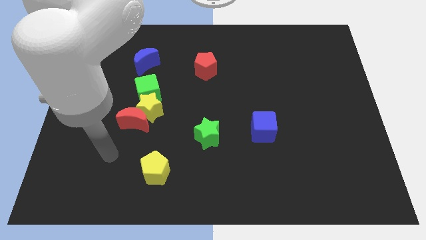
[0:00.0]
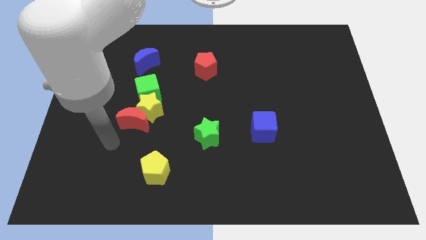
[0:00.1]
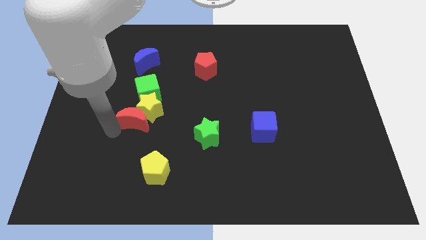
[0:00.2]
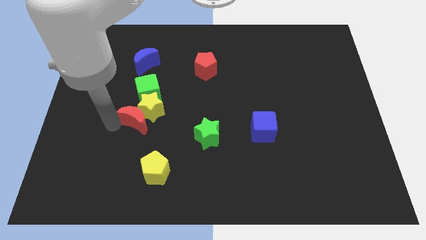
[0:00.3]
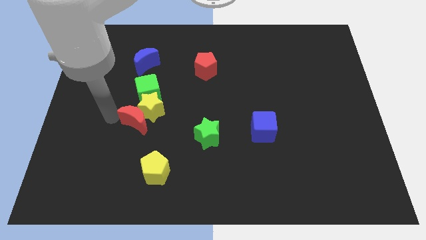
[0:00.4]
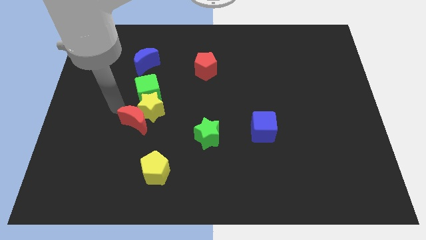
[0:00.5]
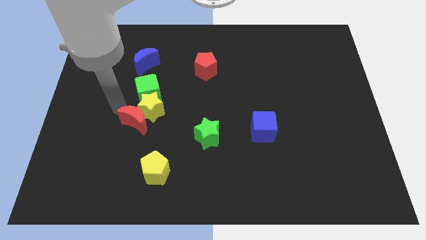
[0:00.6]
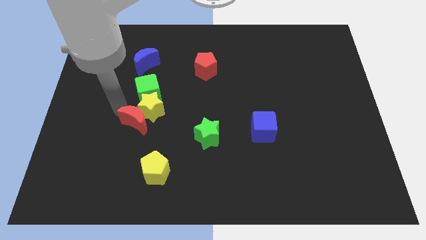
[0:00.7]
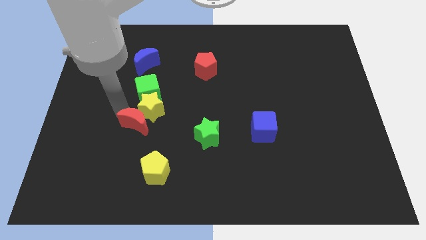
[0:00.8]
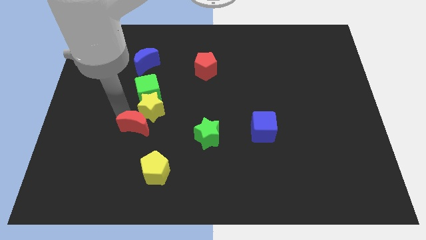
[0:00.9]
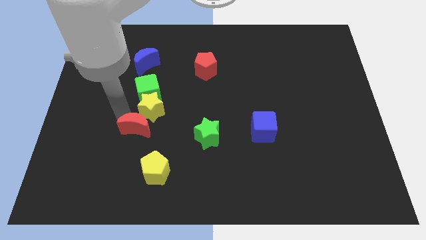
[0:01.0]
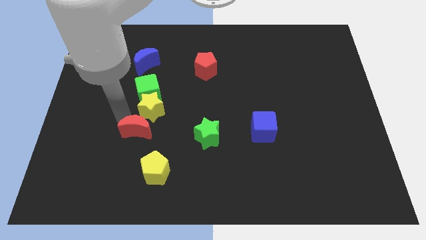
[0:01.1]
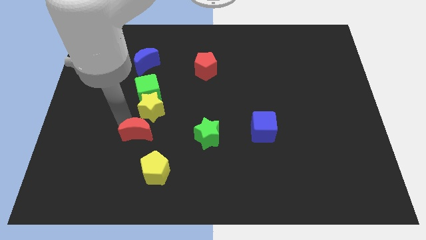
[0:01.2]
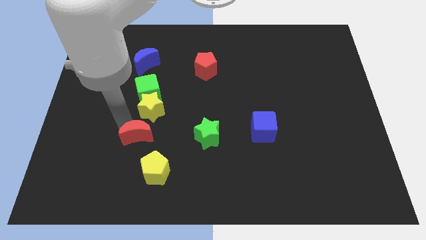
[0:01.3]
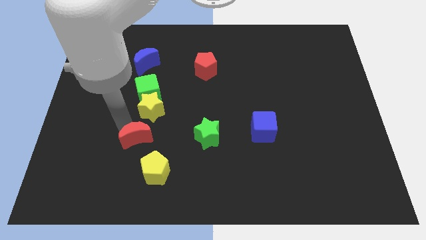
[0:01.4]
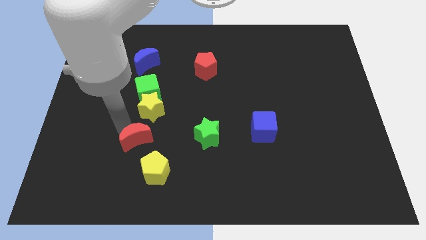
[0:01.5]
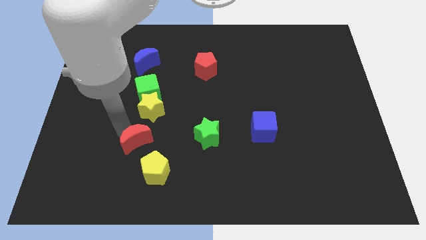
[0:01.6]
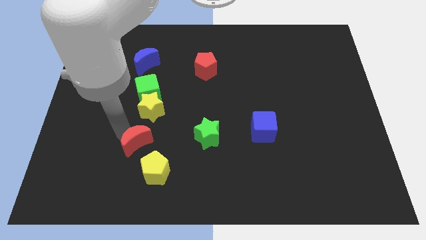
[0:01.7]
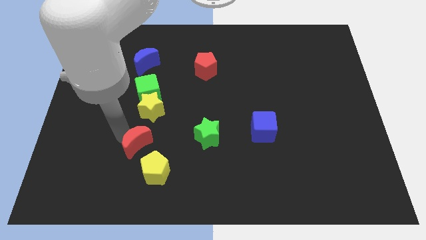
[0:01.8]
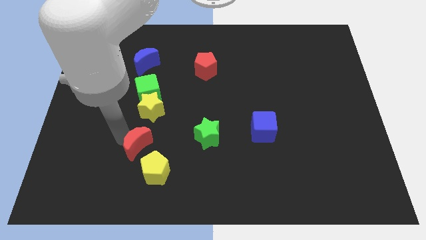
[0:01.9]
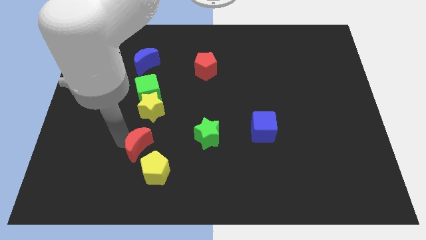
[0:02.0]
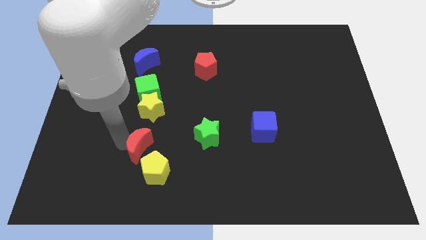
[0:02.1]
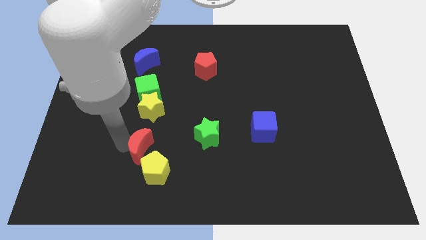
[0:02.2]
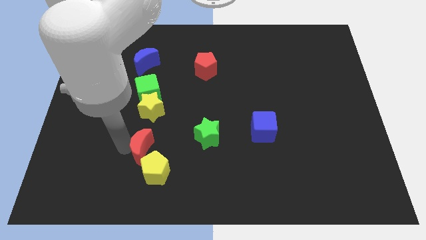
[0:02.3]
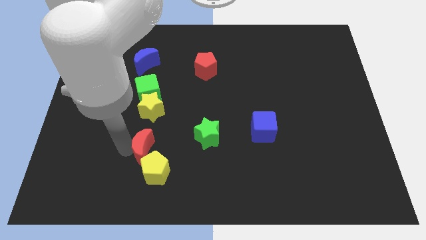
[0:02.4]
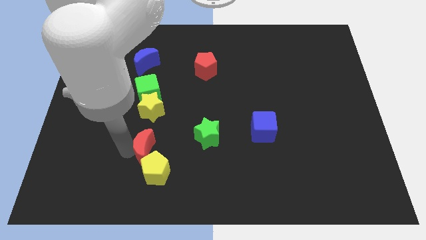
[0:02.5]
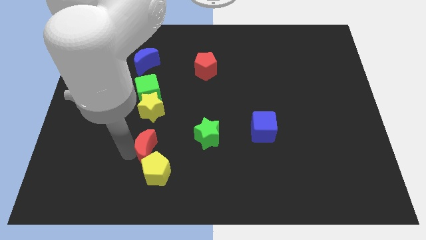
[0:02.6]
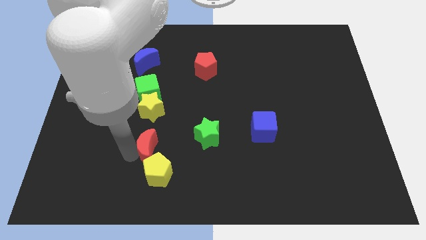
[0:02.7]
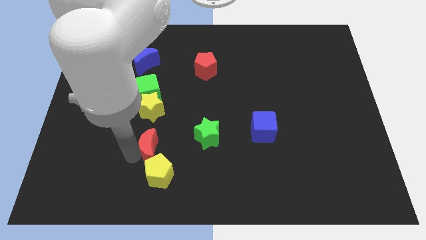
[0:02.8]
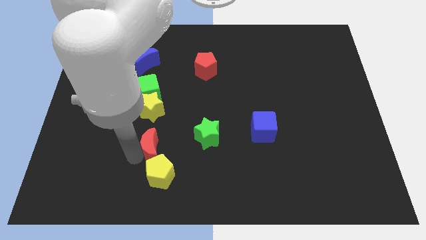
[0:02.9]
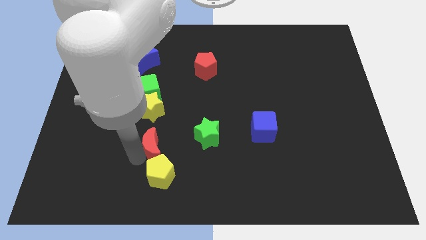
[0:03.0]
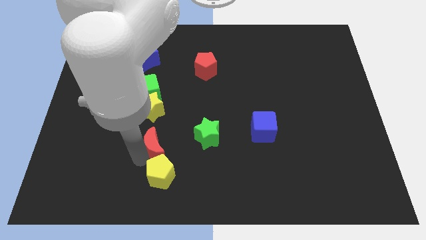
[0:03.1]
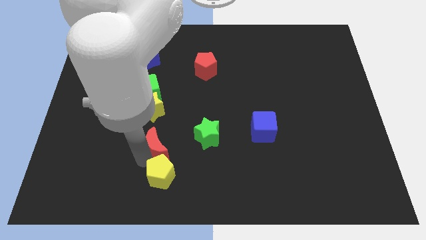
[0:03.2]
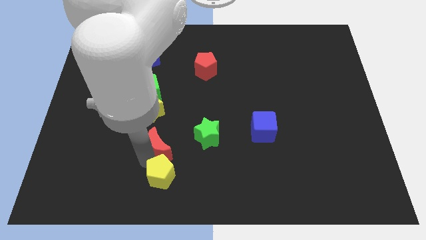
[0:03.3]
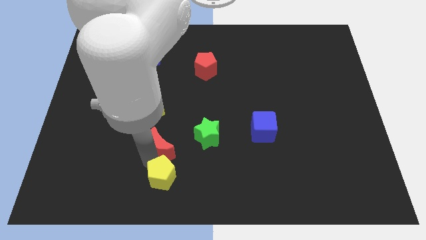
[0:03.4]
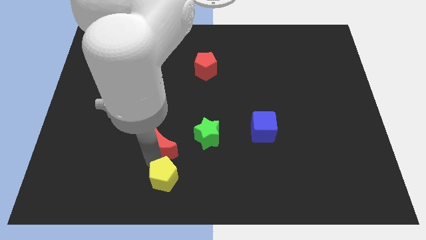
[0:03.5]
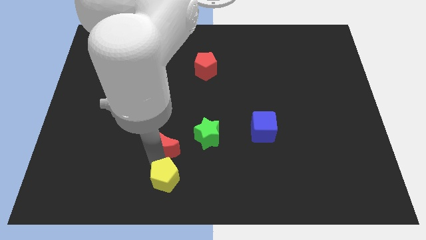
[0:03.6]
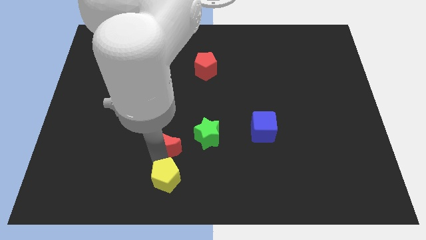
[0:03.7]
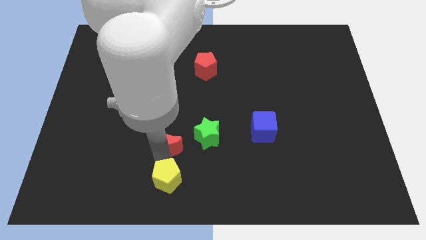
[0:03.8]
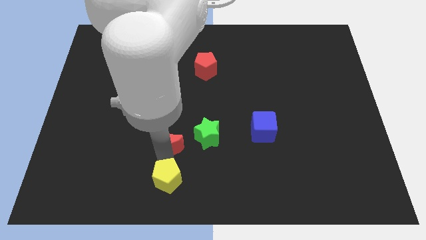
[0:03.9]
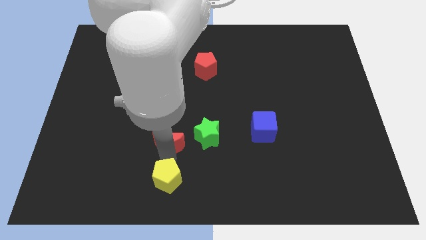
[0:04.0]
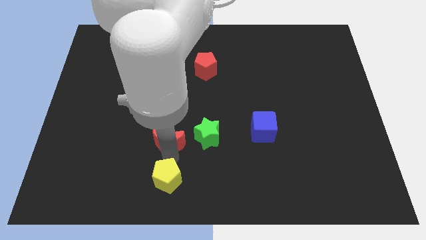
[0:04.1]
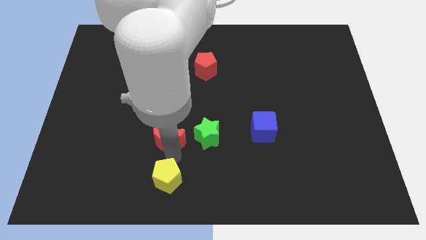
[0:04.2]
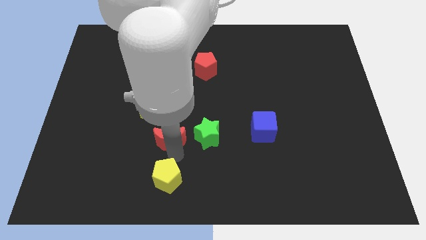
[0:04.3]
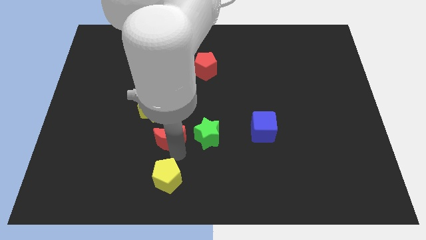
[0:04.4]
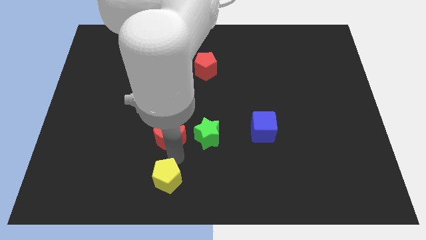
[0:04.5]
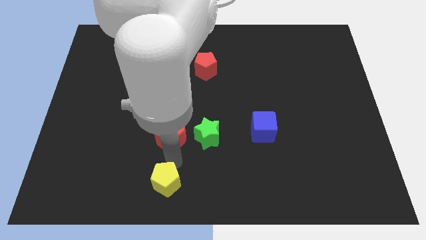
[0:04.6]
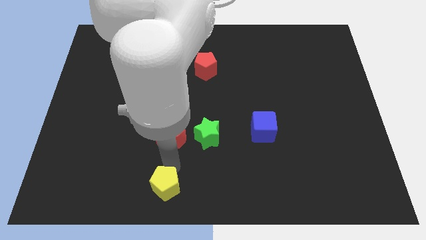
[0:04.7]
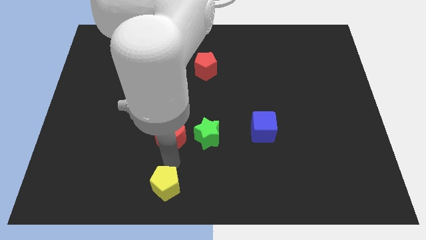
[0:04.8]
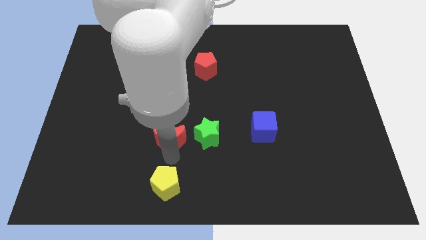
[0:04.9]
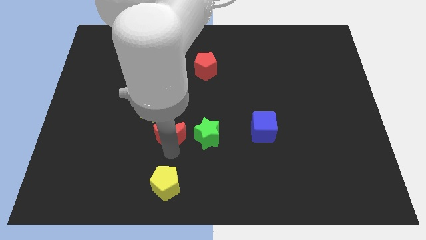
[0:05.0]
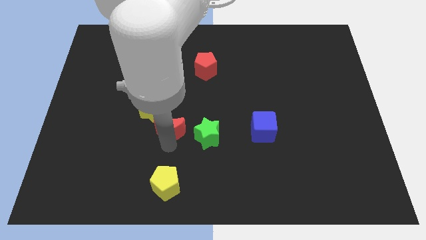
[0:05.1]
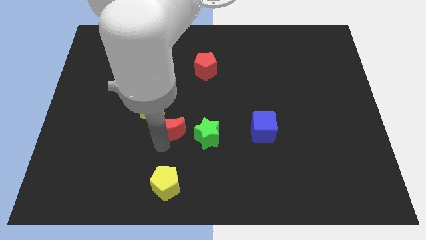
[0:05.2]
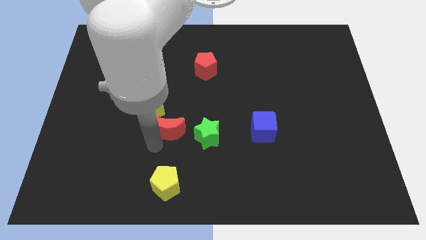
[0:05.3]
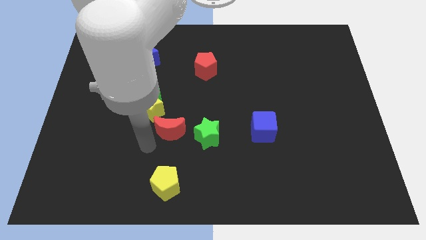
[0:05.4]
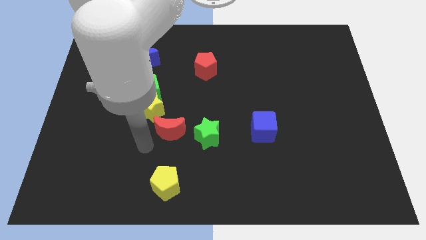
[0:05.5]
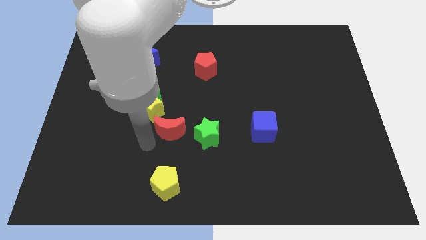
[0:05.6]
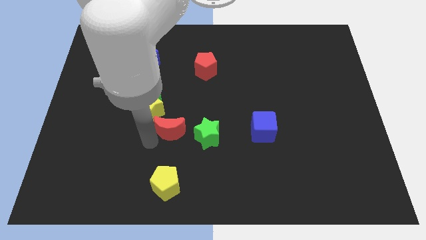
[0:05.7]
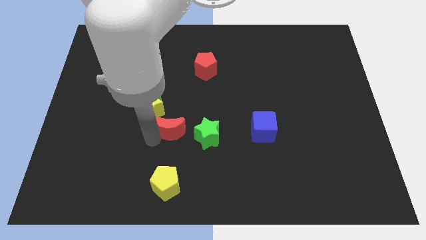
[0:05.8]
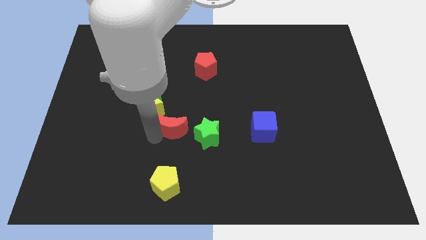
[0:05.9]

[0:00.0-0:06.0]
put the red moon to the center of the board
